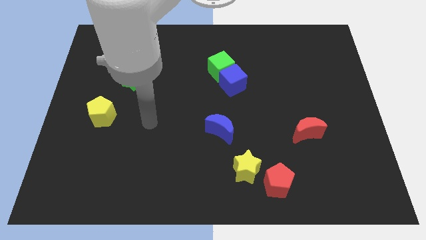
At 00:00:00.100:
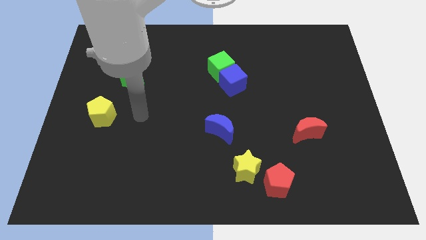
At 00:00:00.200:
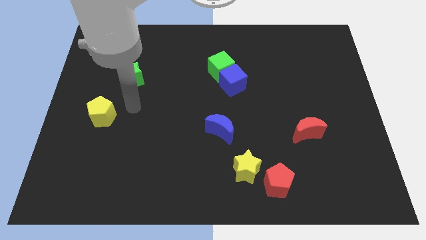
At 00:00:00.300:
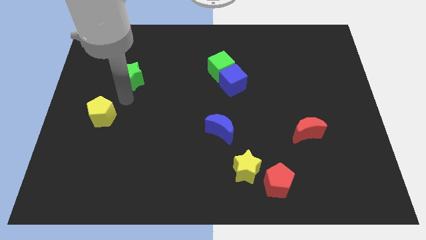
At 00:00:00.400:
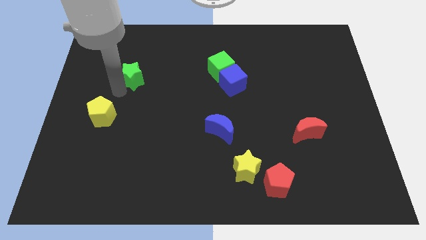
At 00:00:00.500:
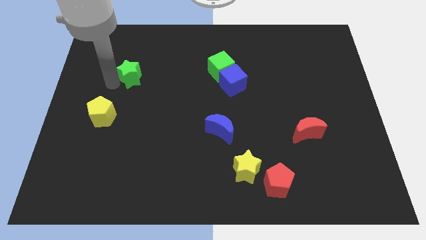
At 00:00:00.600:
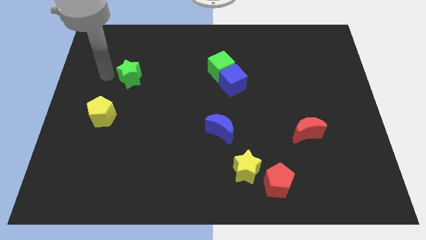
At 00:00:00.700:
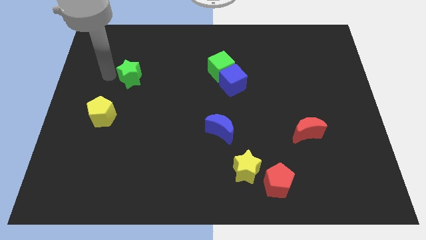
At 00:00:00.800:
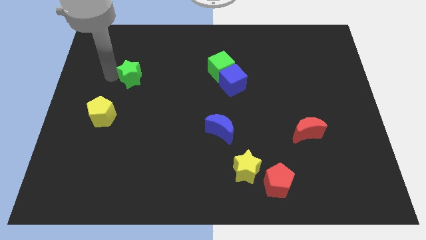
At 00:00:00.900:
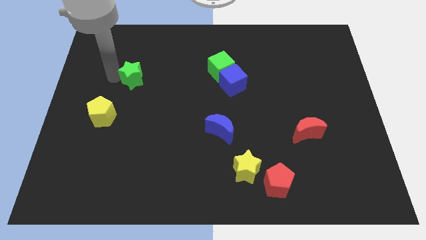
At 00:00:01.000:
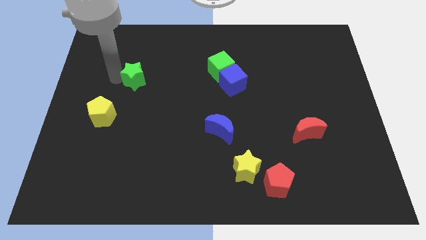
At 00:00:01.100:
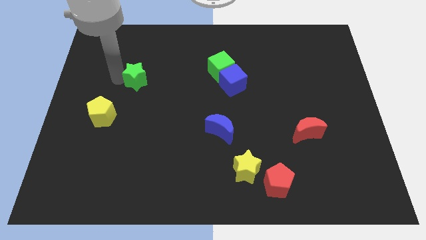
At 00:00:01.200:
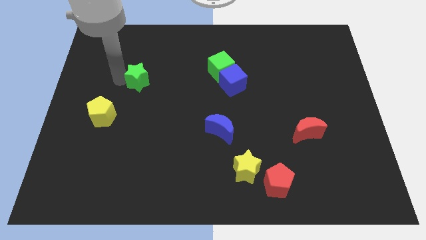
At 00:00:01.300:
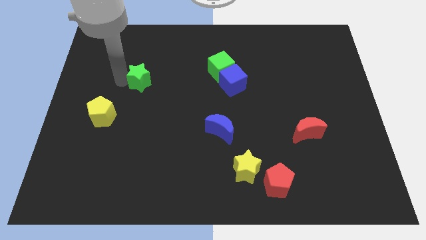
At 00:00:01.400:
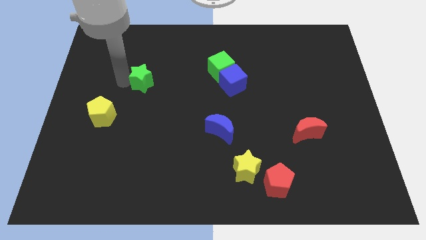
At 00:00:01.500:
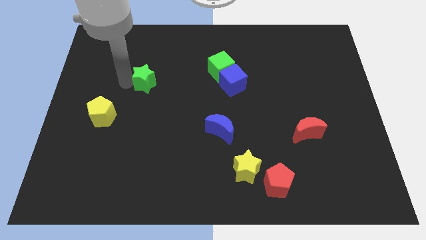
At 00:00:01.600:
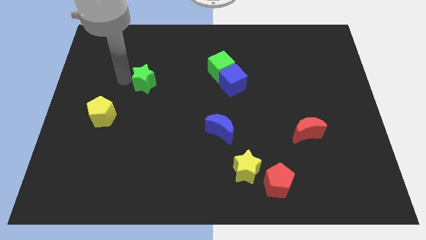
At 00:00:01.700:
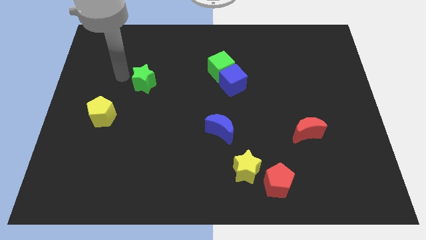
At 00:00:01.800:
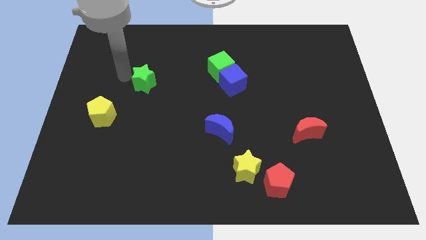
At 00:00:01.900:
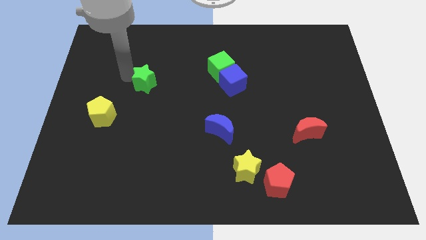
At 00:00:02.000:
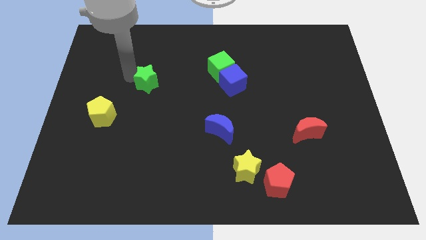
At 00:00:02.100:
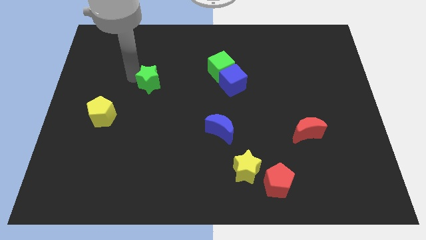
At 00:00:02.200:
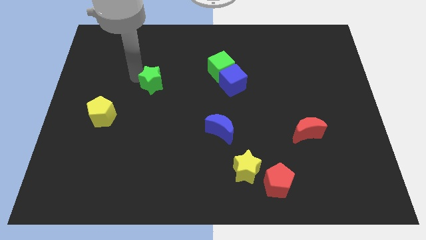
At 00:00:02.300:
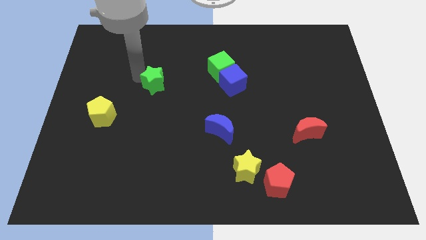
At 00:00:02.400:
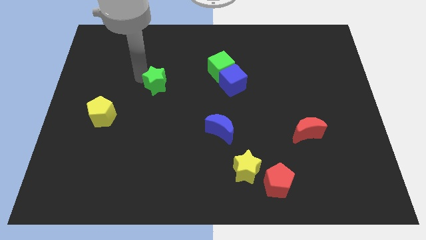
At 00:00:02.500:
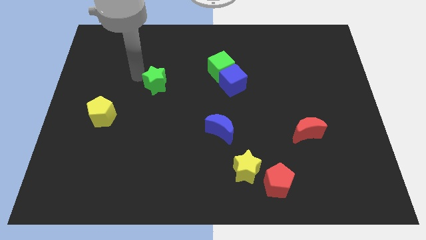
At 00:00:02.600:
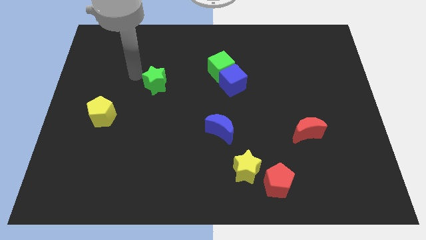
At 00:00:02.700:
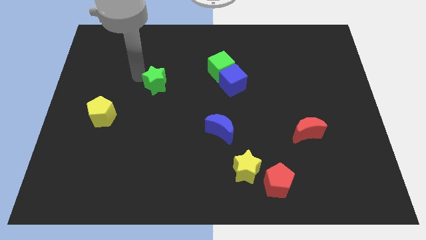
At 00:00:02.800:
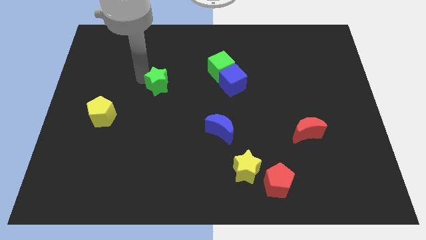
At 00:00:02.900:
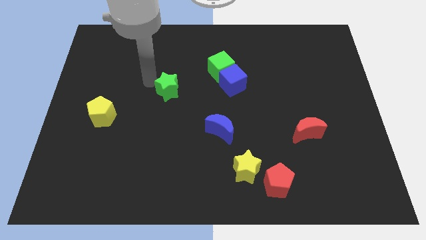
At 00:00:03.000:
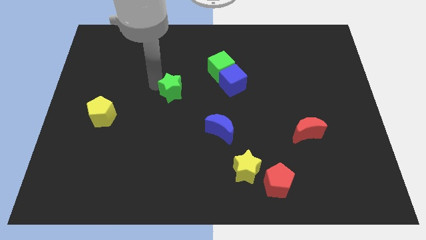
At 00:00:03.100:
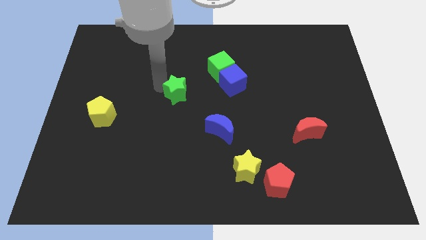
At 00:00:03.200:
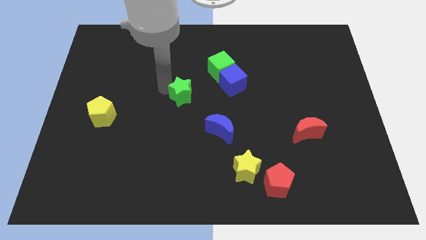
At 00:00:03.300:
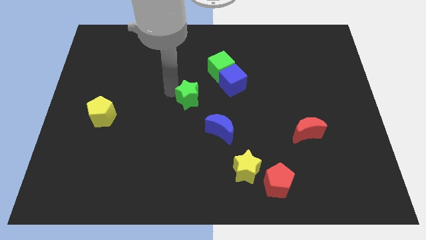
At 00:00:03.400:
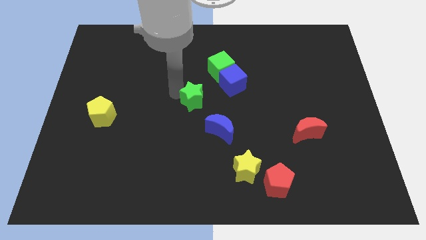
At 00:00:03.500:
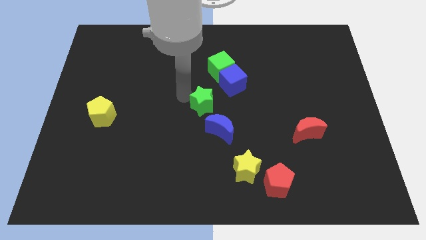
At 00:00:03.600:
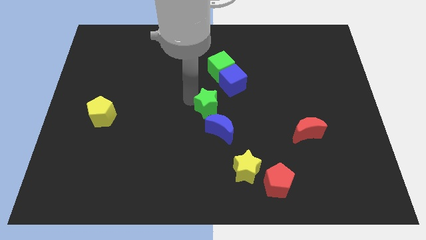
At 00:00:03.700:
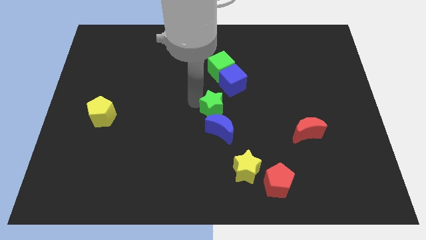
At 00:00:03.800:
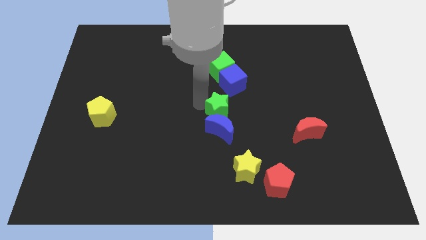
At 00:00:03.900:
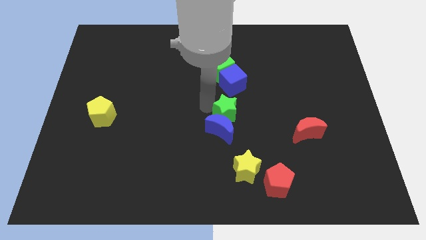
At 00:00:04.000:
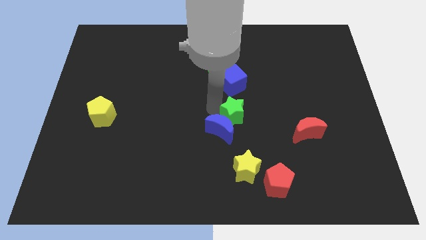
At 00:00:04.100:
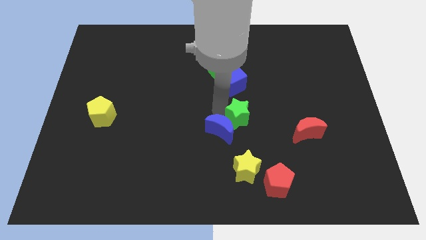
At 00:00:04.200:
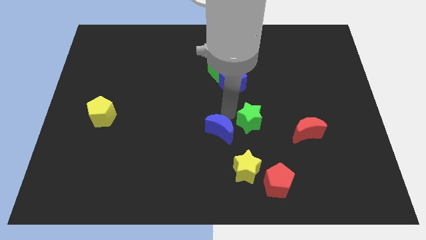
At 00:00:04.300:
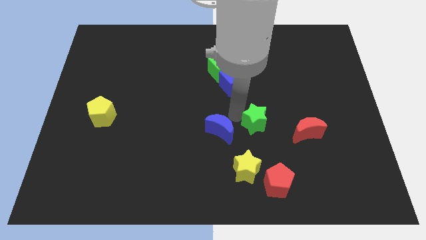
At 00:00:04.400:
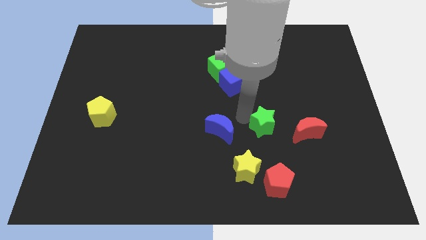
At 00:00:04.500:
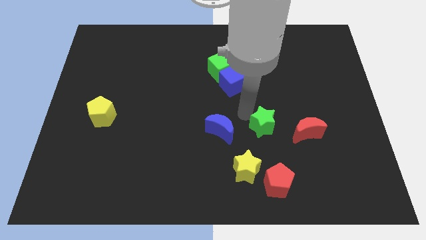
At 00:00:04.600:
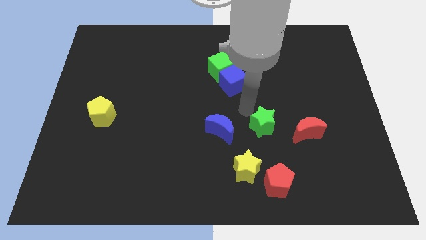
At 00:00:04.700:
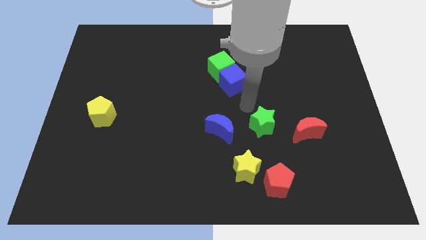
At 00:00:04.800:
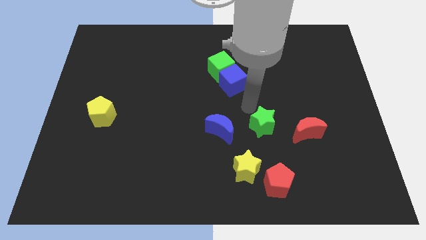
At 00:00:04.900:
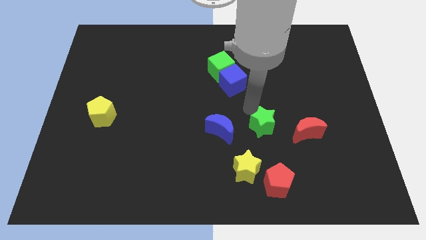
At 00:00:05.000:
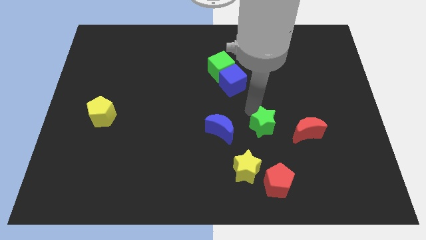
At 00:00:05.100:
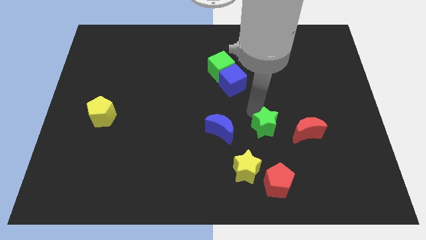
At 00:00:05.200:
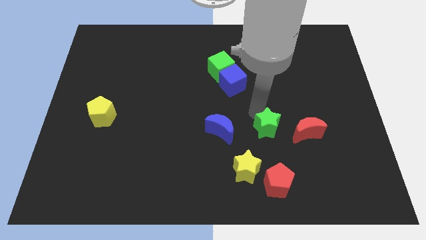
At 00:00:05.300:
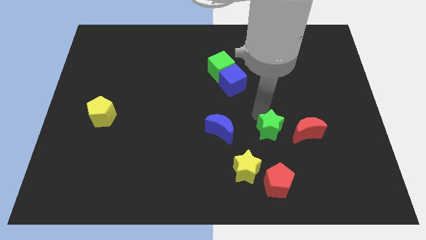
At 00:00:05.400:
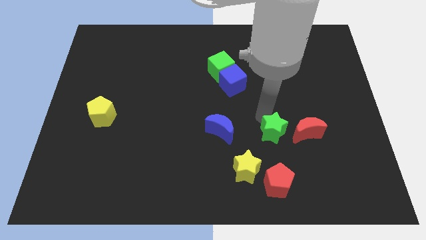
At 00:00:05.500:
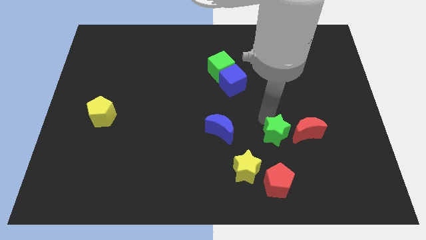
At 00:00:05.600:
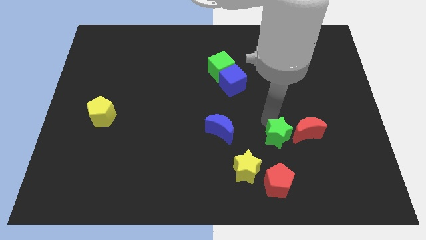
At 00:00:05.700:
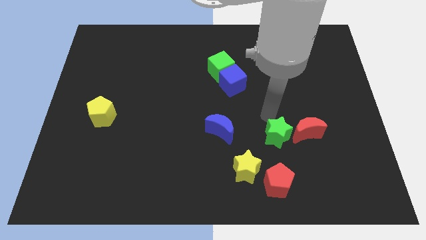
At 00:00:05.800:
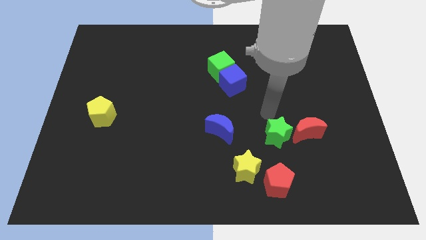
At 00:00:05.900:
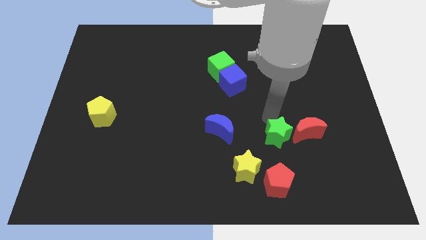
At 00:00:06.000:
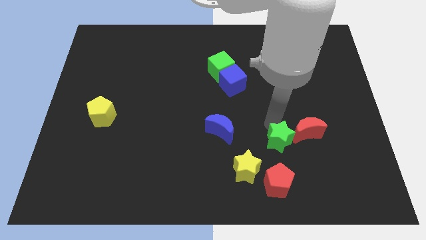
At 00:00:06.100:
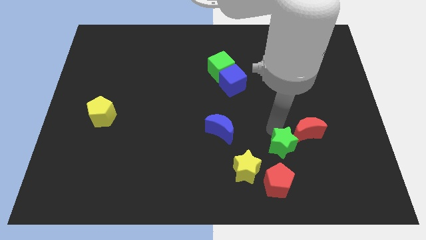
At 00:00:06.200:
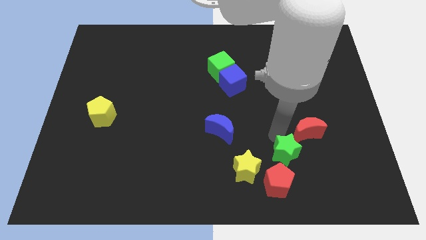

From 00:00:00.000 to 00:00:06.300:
put the green star to the right of the yellow star
